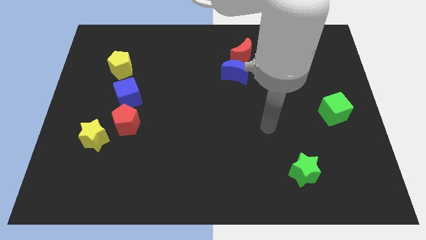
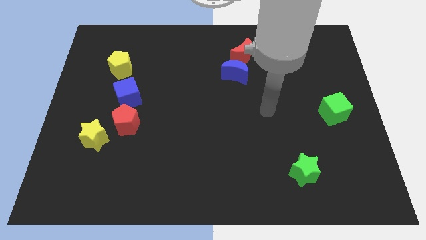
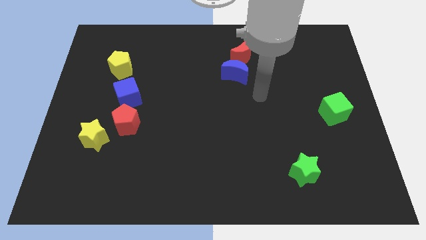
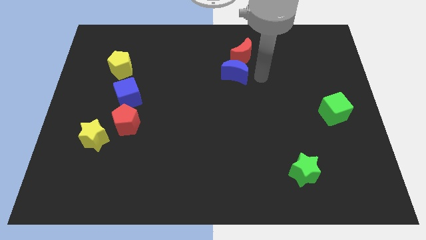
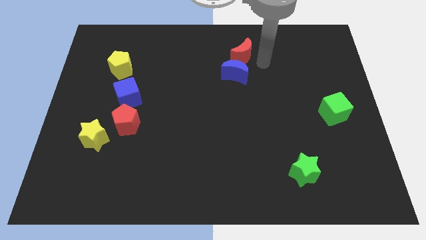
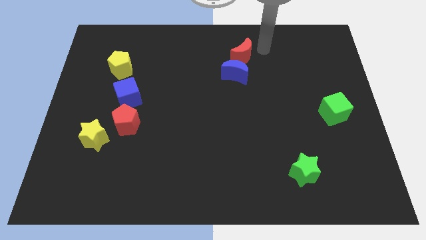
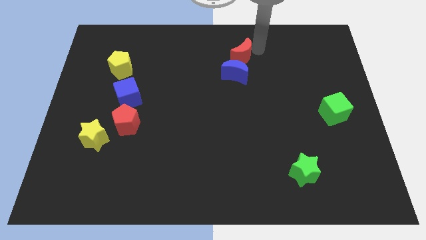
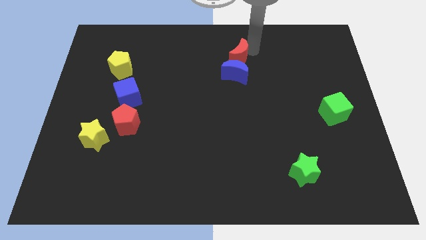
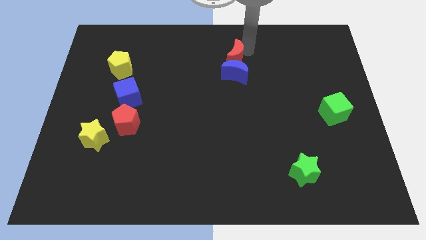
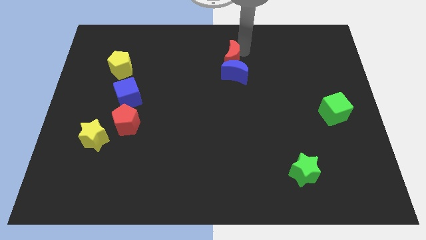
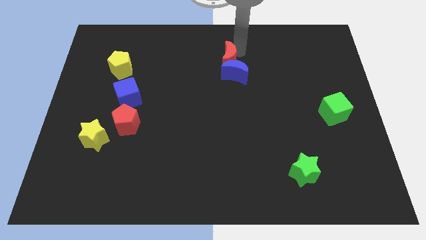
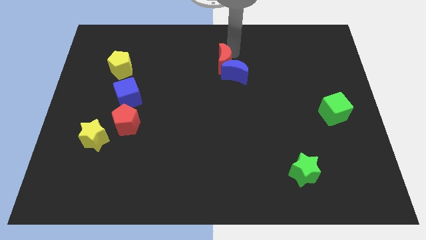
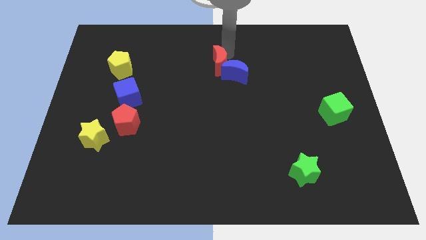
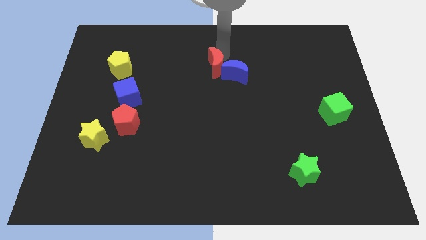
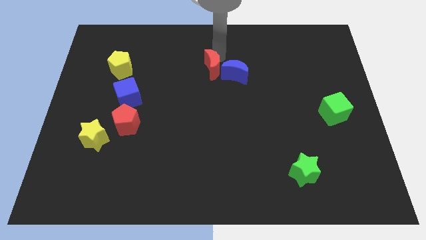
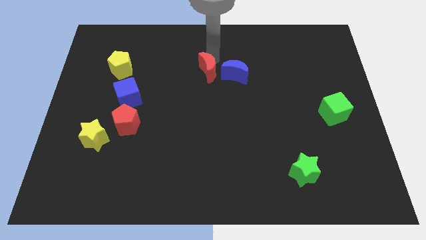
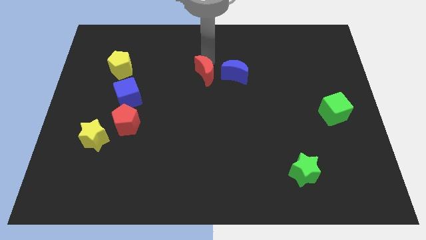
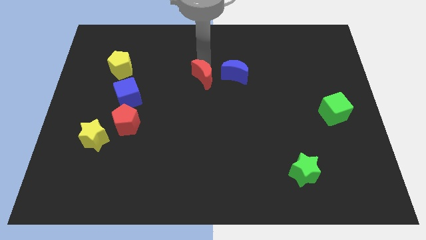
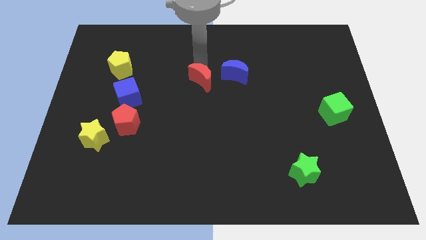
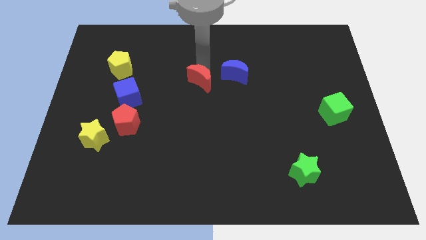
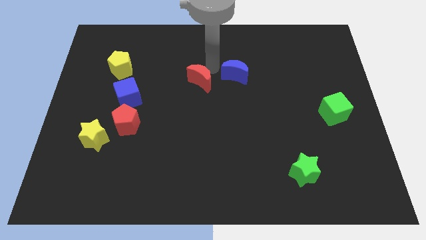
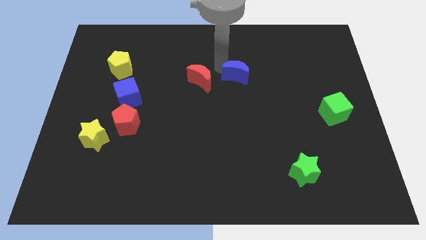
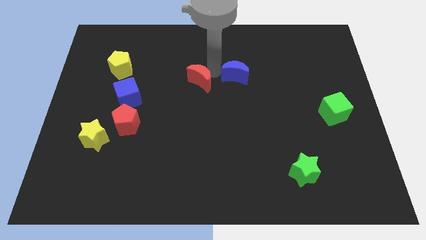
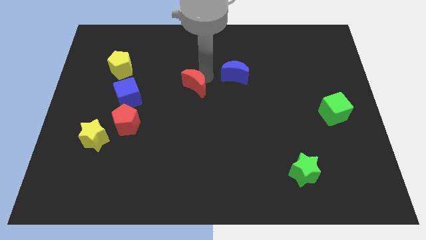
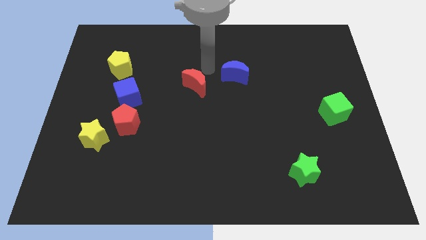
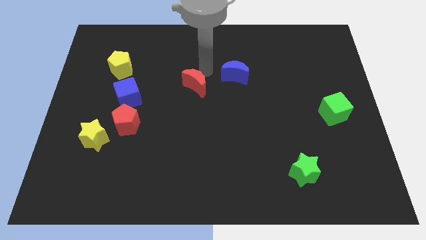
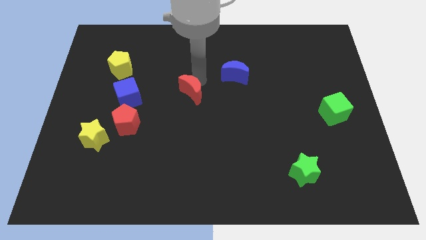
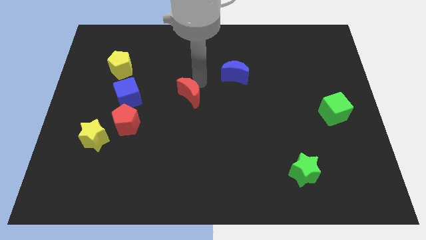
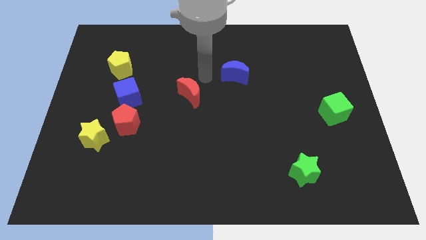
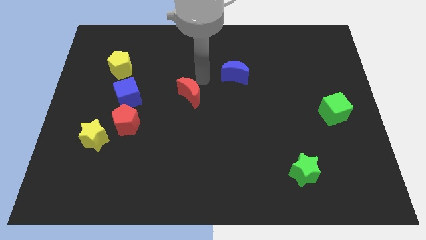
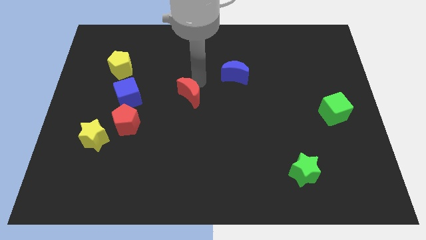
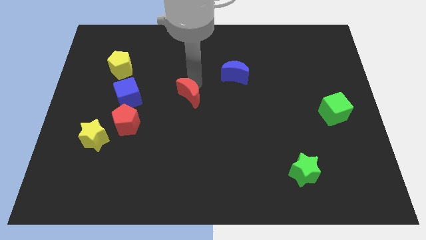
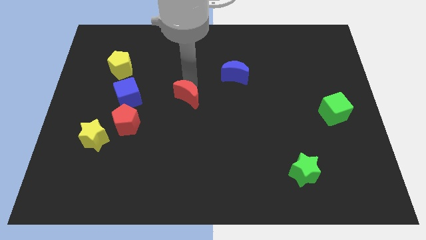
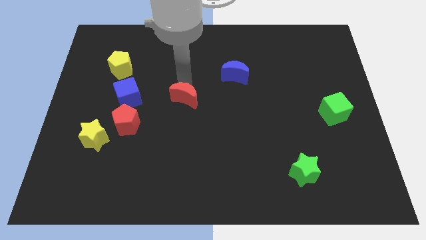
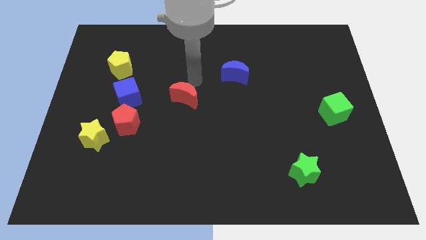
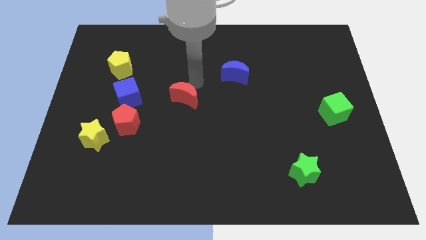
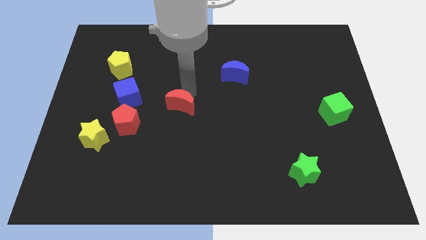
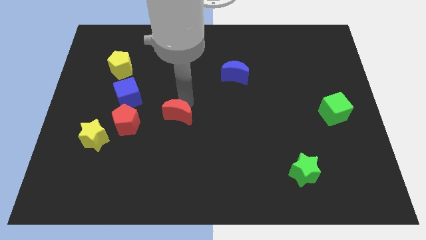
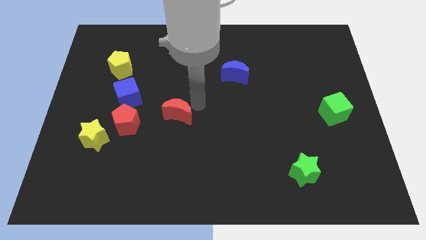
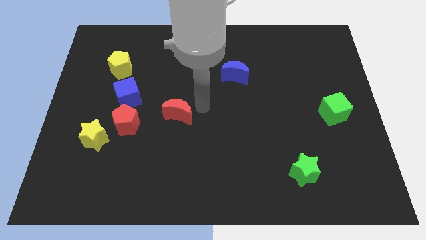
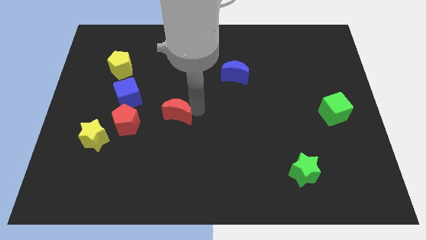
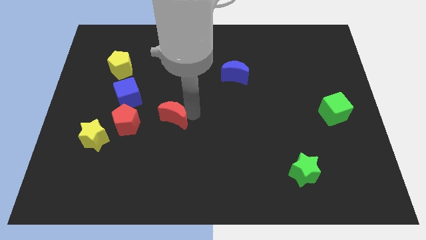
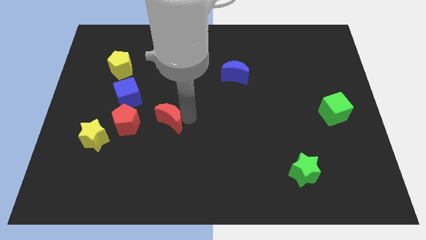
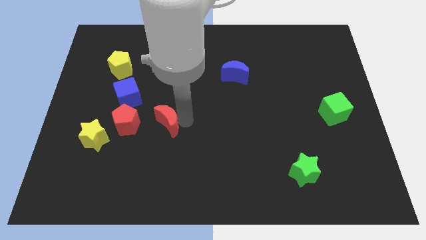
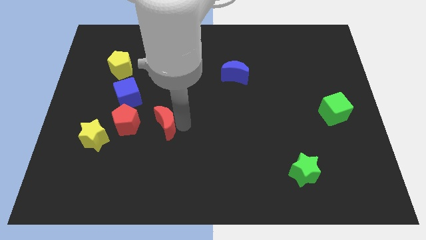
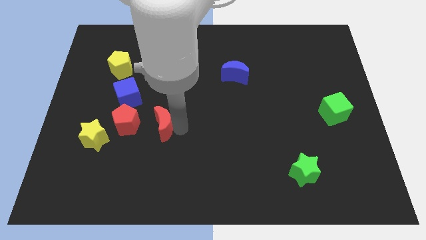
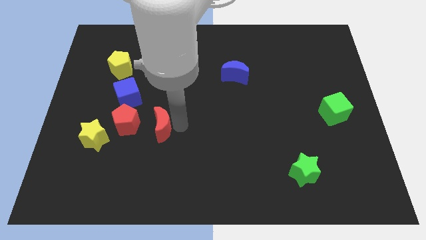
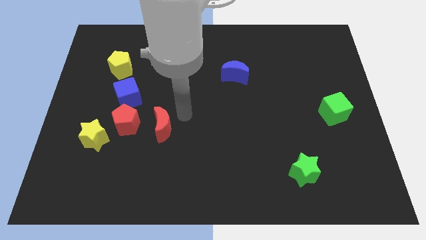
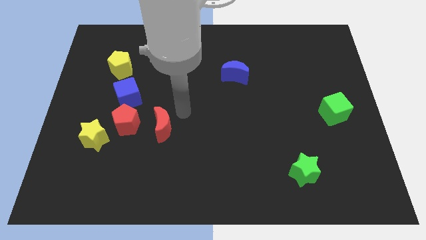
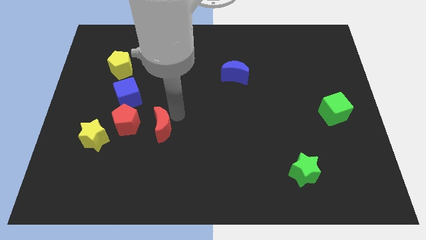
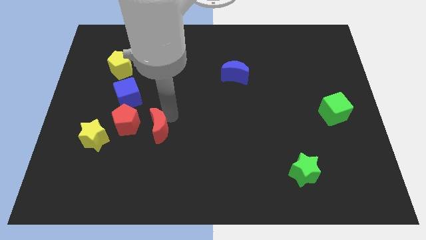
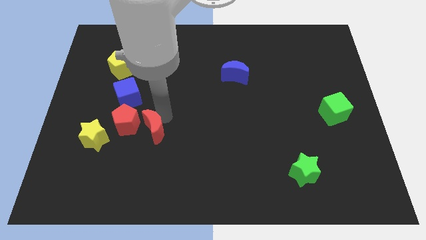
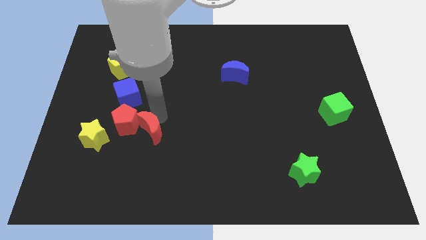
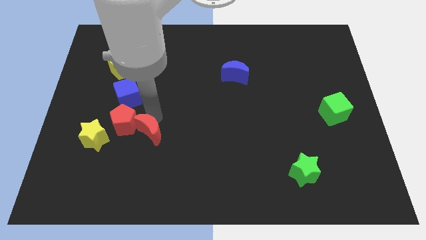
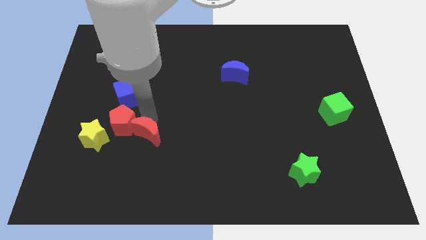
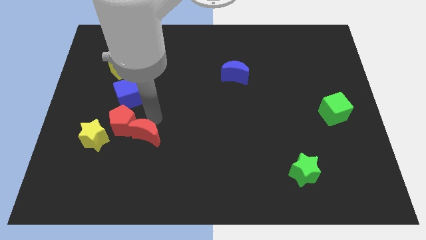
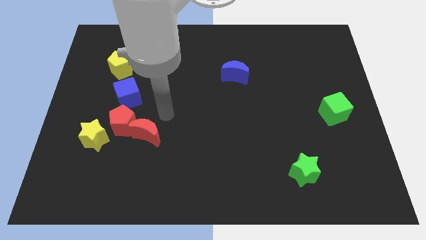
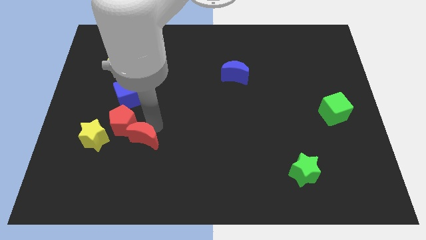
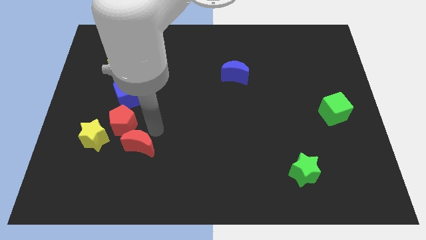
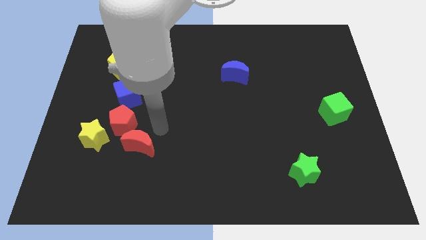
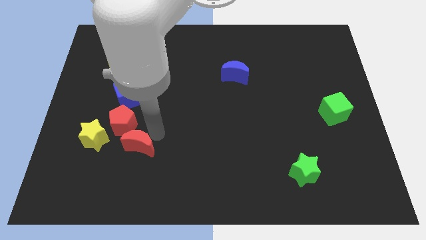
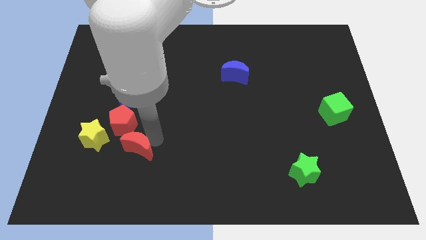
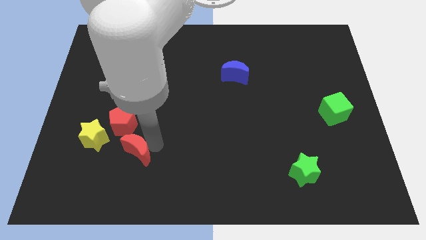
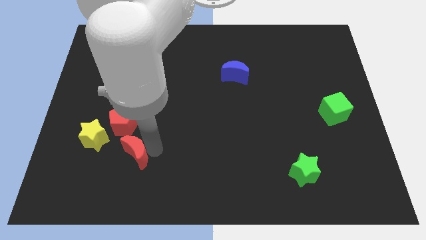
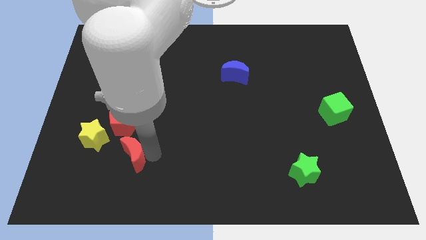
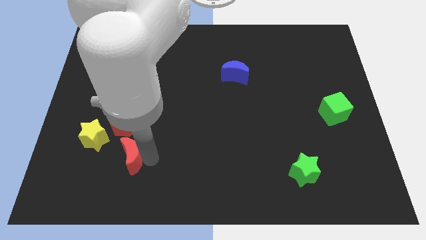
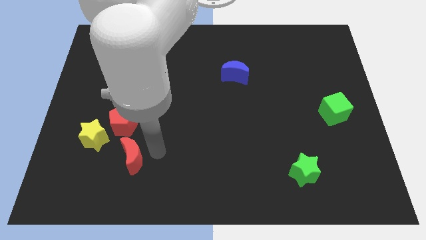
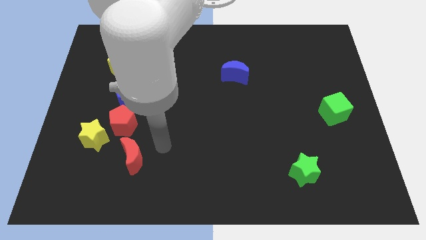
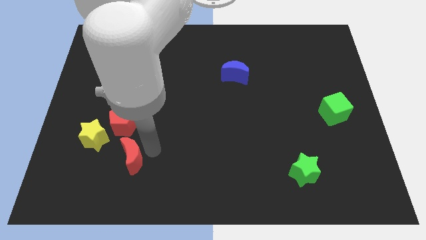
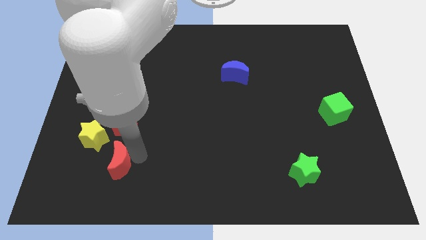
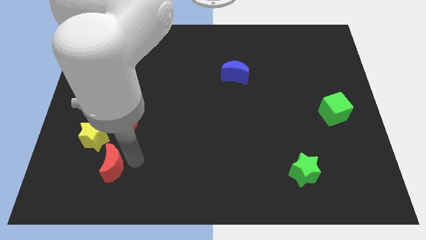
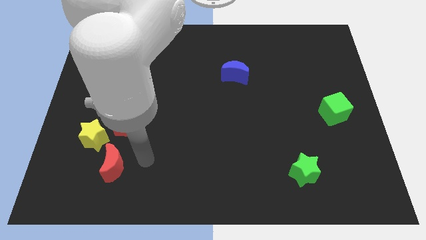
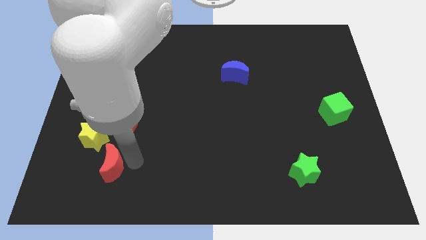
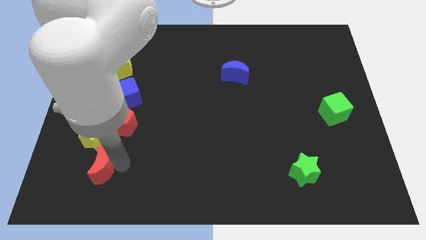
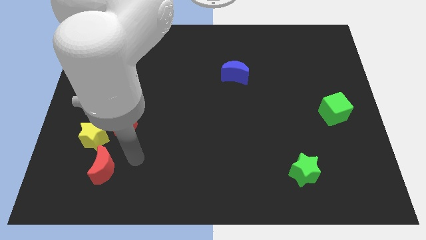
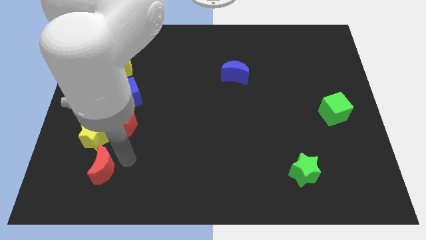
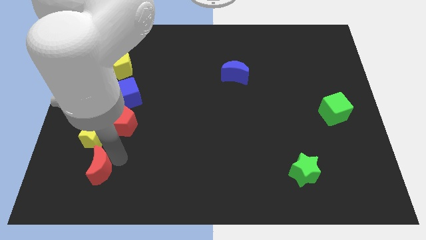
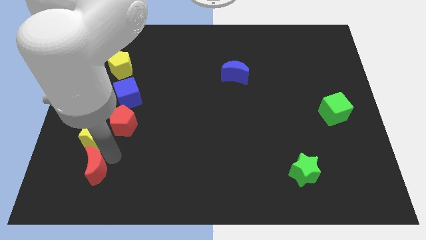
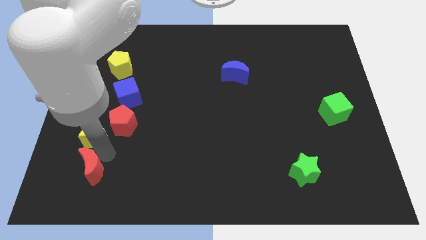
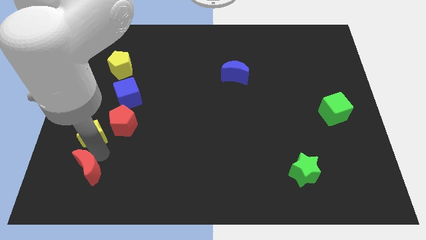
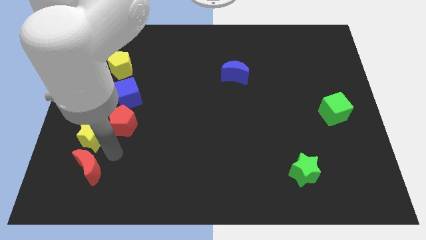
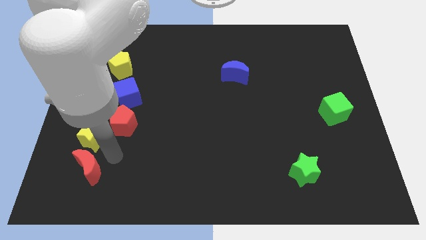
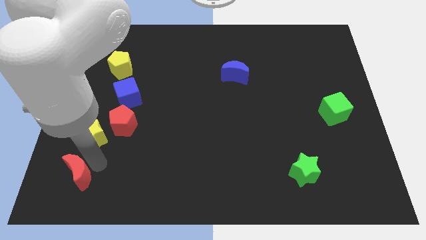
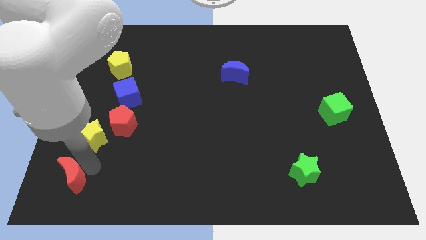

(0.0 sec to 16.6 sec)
push the red moon to the bottom left
